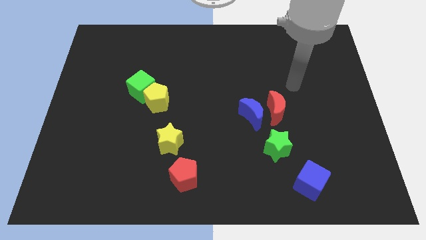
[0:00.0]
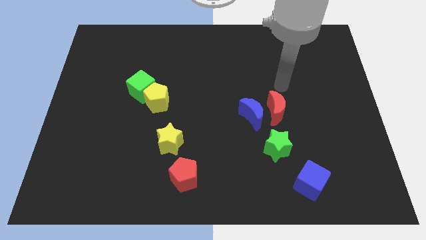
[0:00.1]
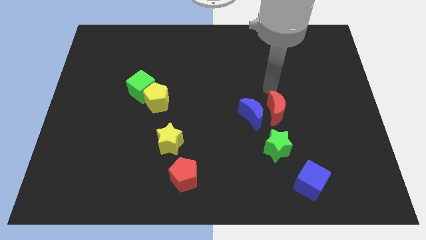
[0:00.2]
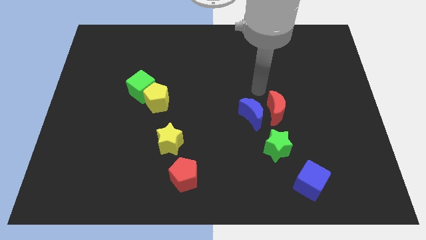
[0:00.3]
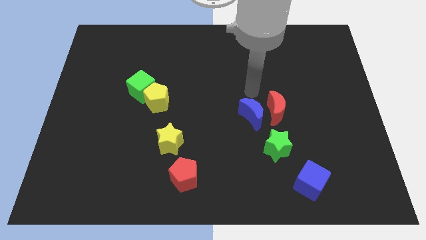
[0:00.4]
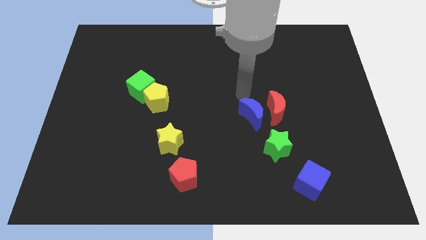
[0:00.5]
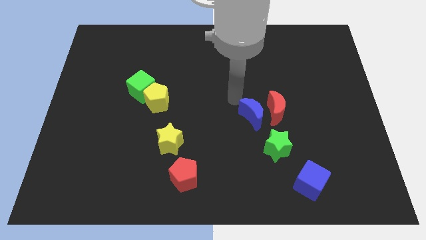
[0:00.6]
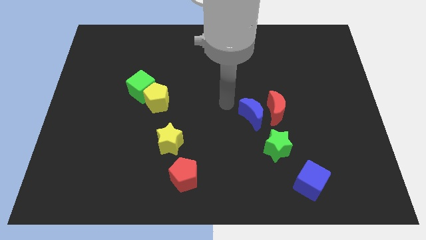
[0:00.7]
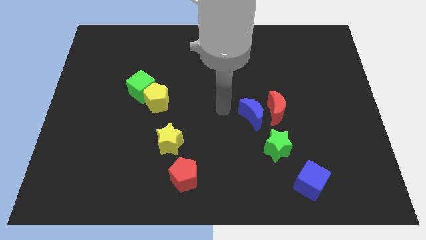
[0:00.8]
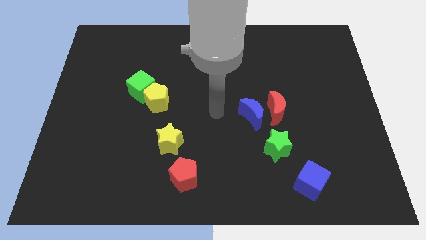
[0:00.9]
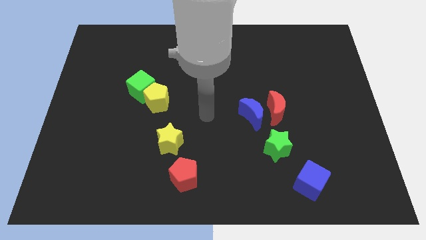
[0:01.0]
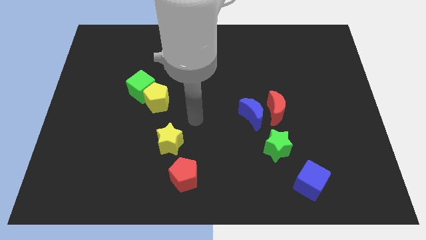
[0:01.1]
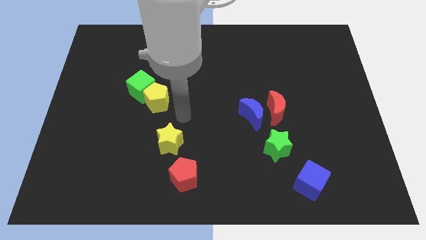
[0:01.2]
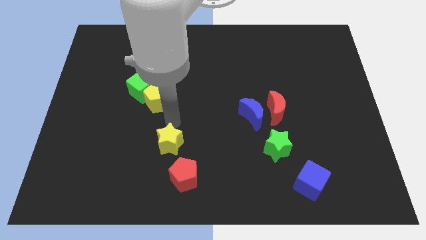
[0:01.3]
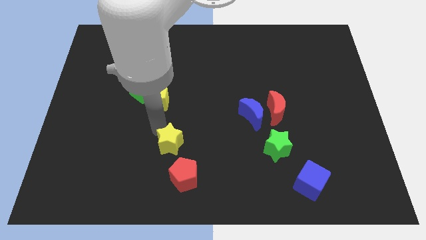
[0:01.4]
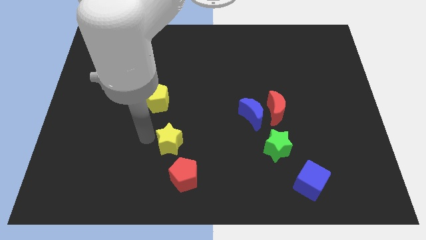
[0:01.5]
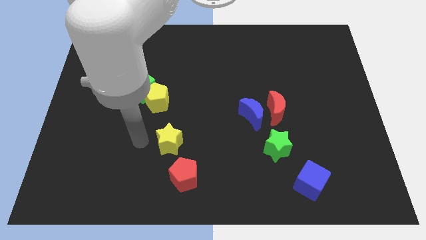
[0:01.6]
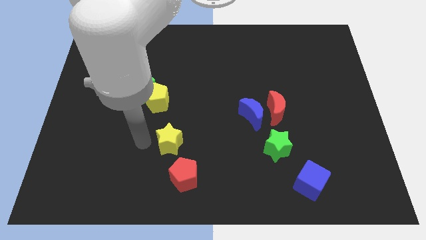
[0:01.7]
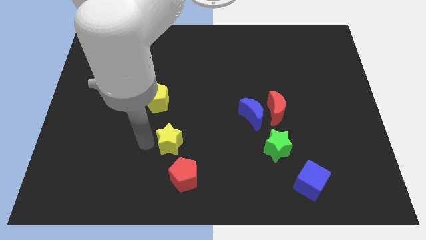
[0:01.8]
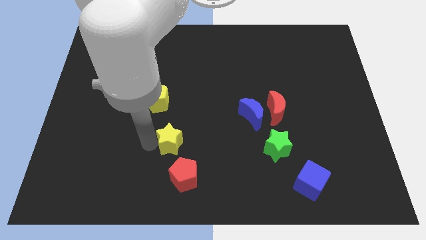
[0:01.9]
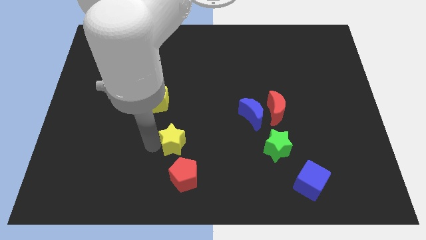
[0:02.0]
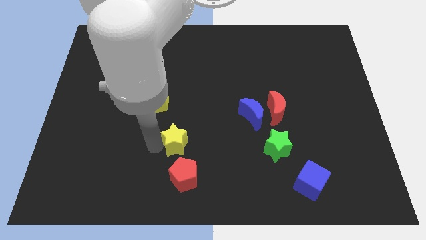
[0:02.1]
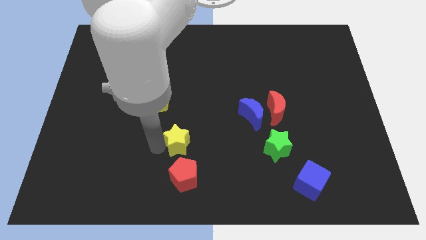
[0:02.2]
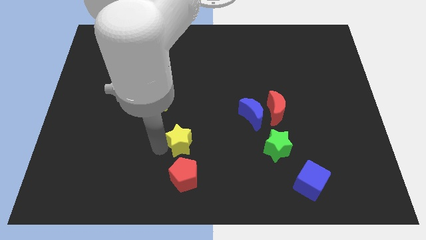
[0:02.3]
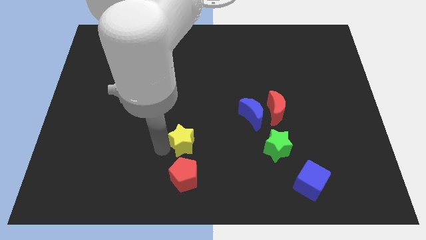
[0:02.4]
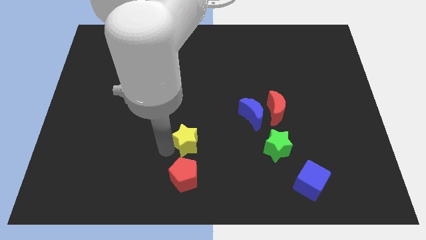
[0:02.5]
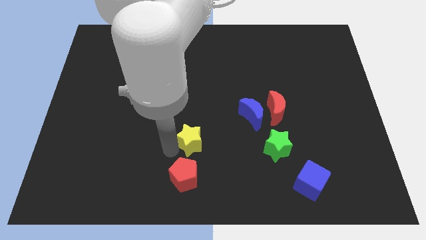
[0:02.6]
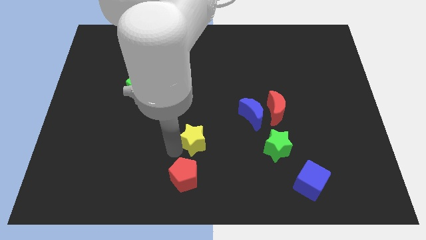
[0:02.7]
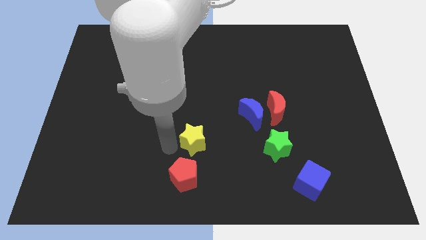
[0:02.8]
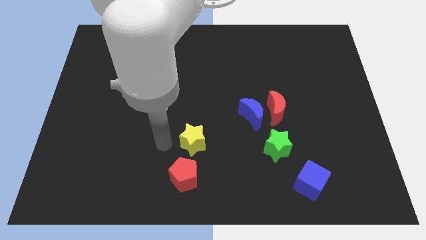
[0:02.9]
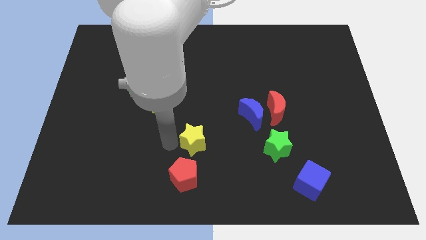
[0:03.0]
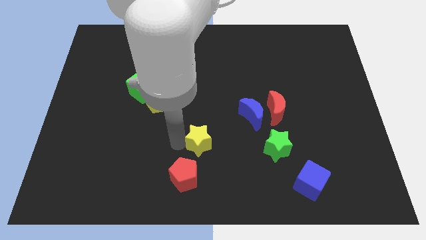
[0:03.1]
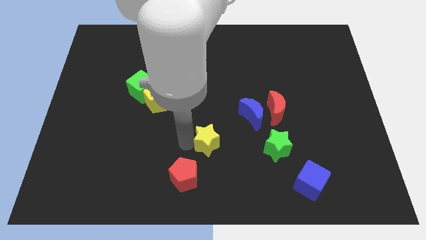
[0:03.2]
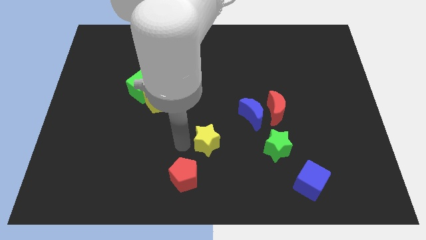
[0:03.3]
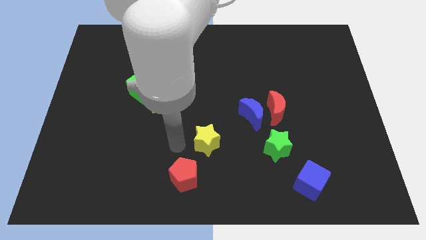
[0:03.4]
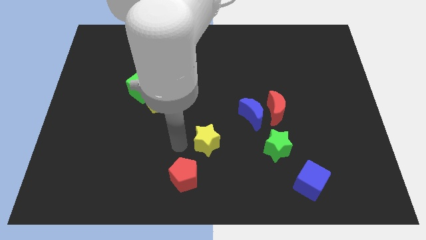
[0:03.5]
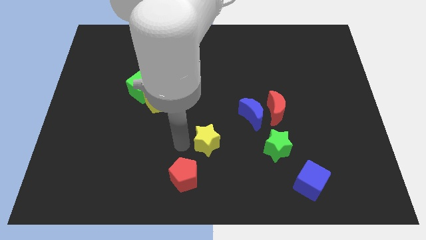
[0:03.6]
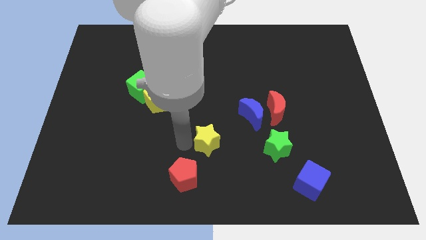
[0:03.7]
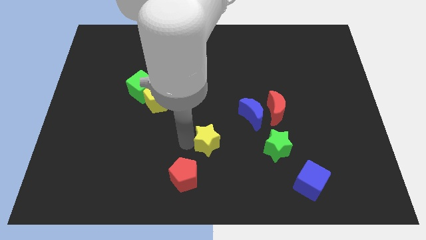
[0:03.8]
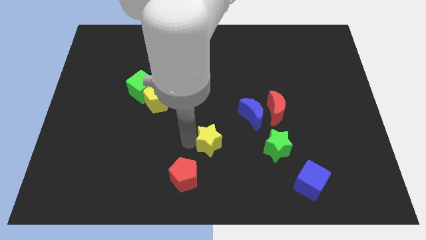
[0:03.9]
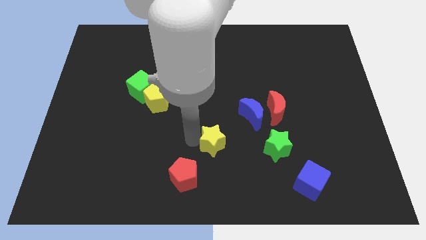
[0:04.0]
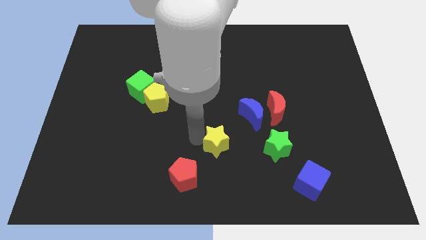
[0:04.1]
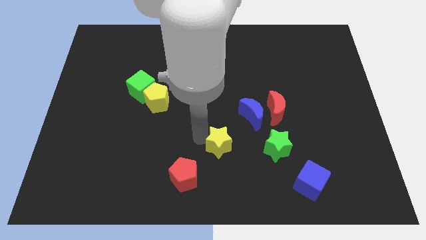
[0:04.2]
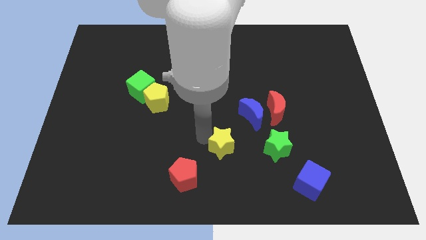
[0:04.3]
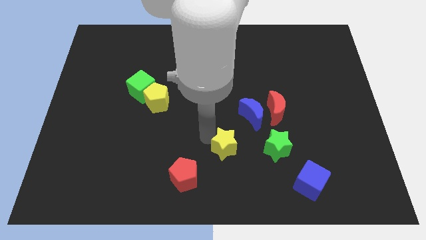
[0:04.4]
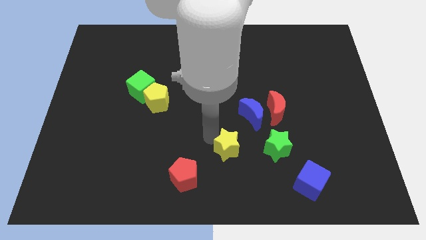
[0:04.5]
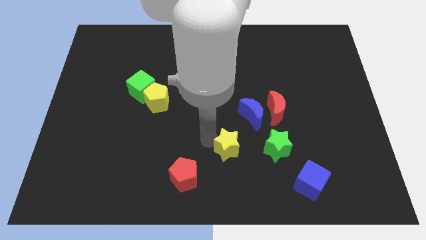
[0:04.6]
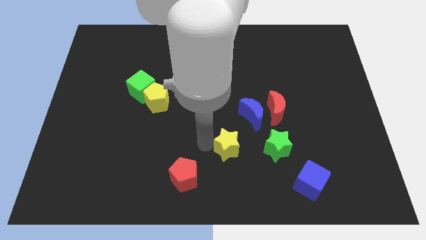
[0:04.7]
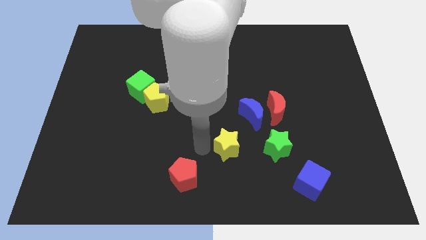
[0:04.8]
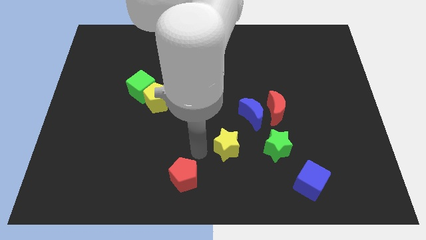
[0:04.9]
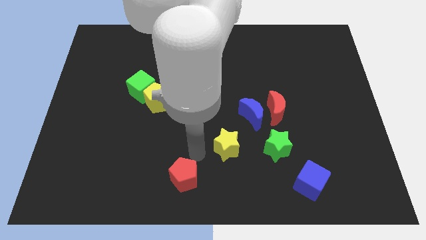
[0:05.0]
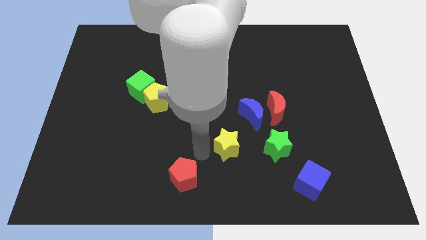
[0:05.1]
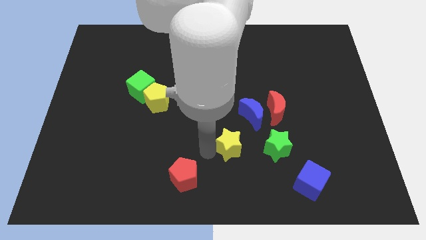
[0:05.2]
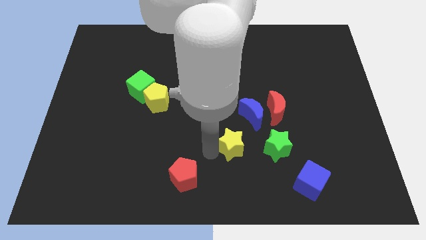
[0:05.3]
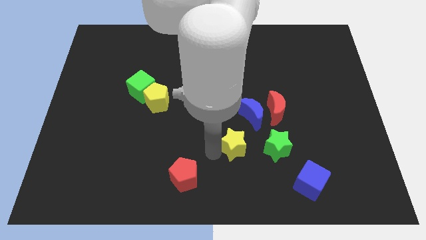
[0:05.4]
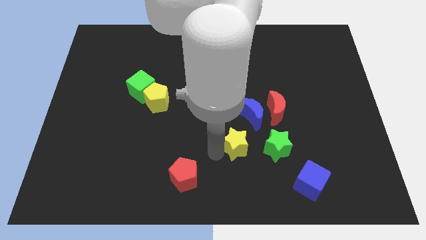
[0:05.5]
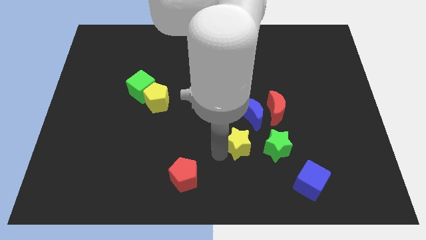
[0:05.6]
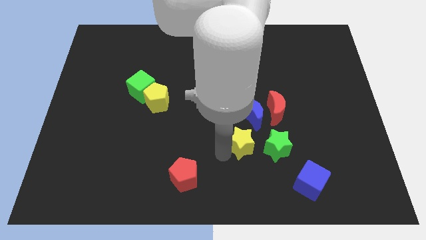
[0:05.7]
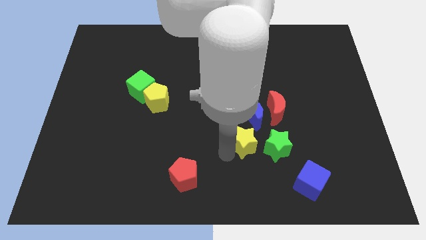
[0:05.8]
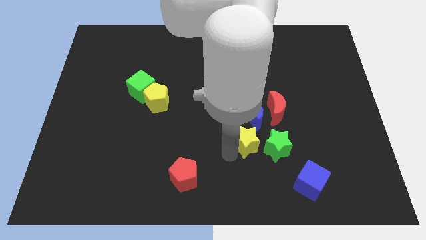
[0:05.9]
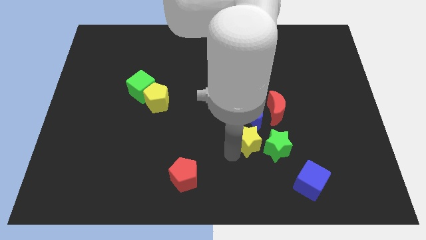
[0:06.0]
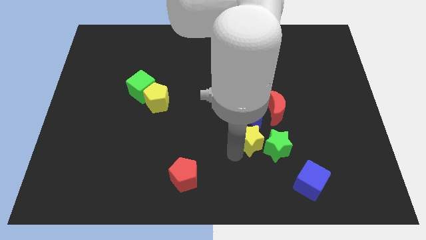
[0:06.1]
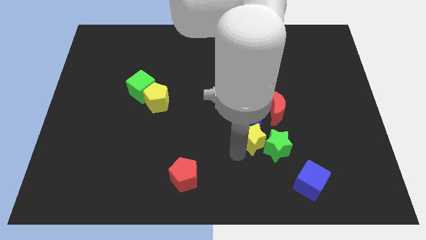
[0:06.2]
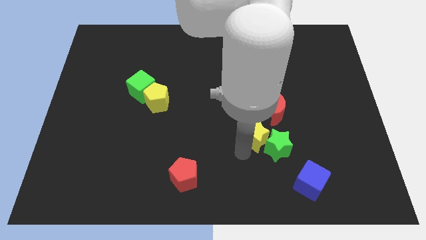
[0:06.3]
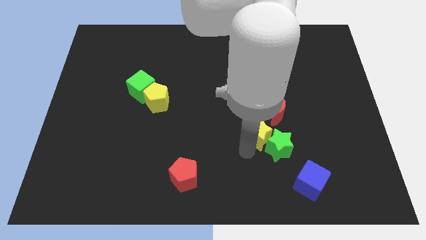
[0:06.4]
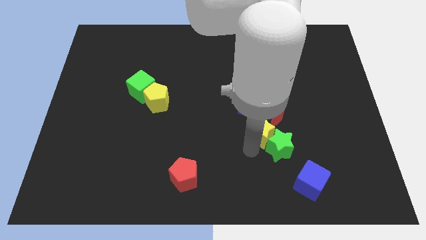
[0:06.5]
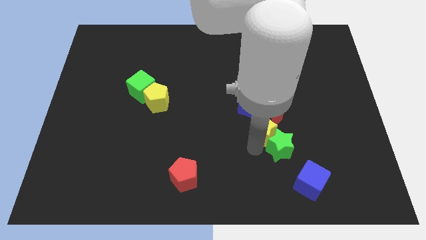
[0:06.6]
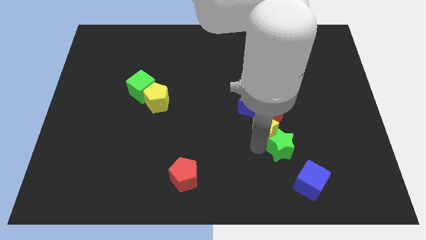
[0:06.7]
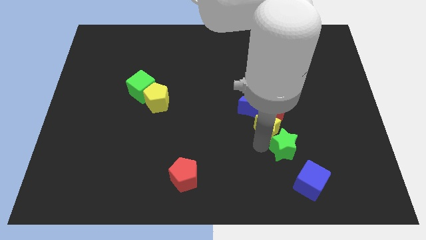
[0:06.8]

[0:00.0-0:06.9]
move the yellow star to the red moon
